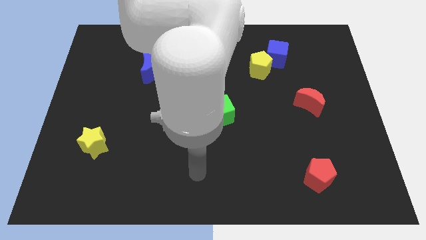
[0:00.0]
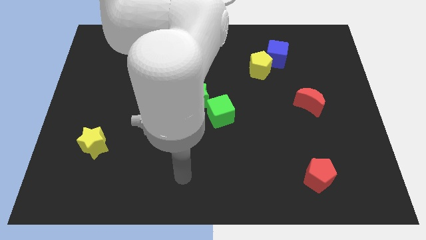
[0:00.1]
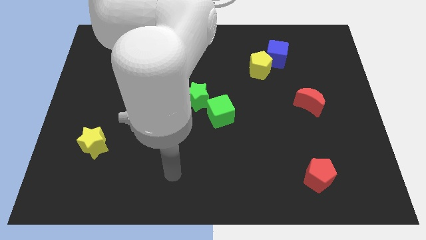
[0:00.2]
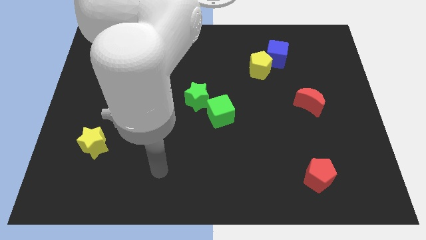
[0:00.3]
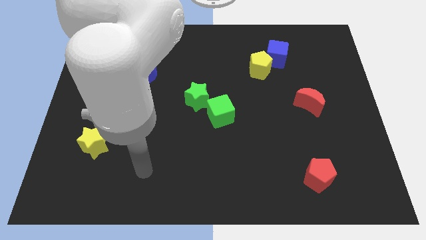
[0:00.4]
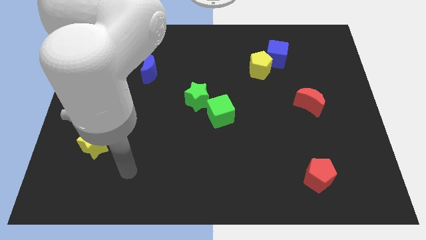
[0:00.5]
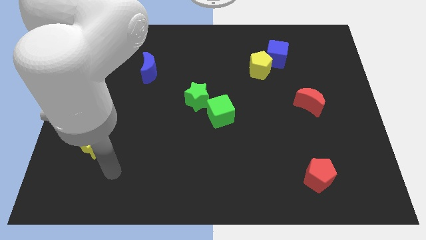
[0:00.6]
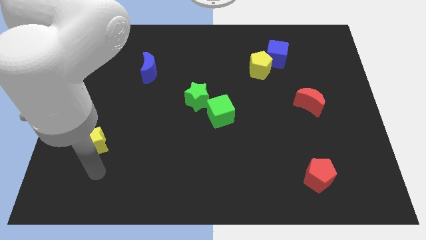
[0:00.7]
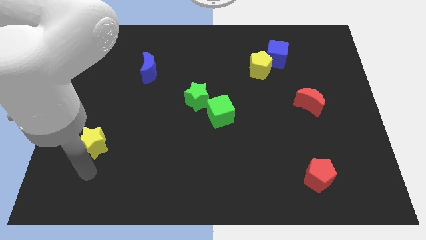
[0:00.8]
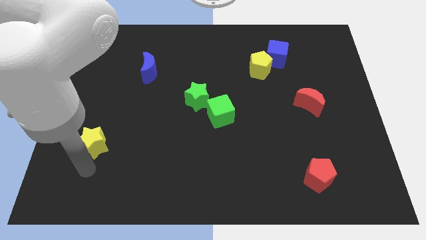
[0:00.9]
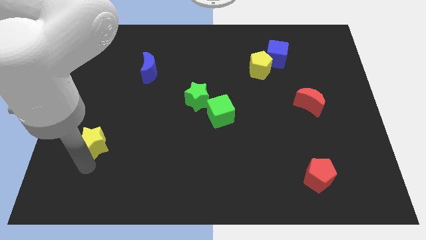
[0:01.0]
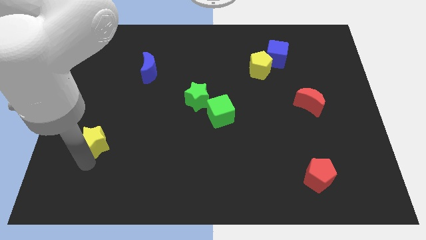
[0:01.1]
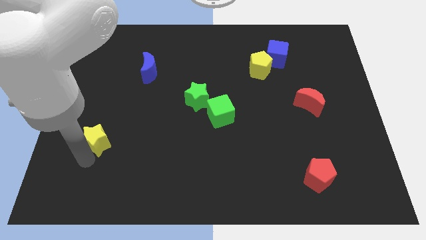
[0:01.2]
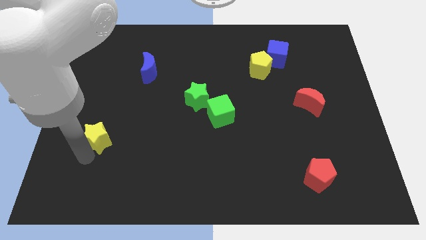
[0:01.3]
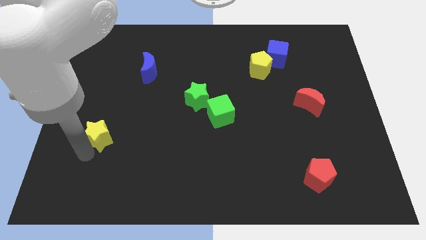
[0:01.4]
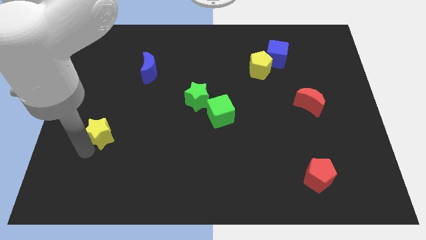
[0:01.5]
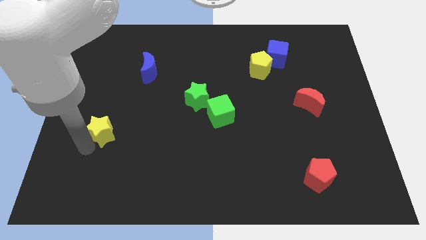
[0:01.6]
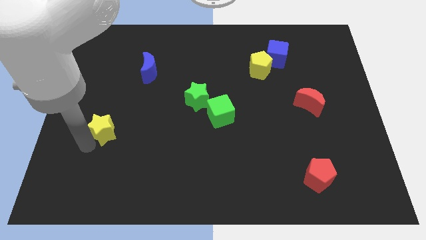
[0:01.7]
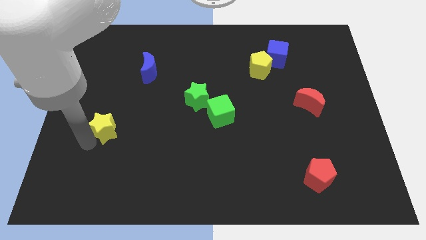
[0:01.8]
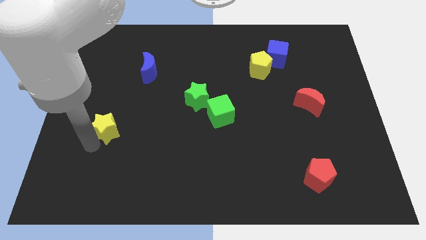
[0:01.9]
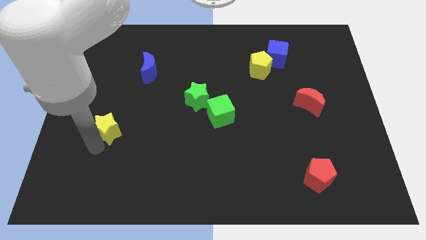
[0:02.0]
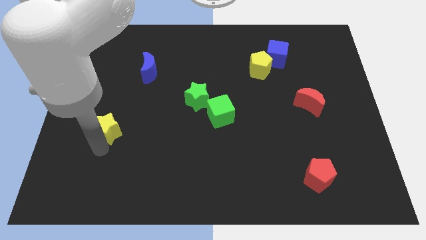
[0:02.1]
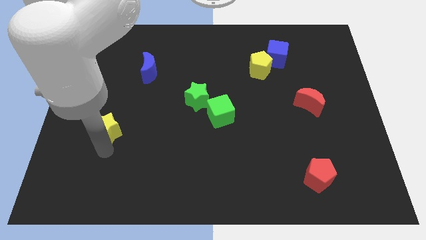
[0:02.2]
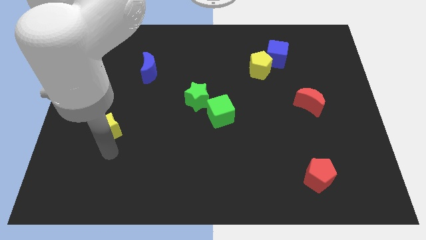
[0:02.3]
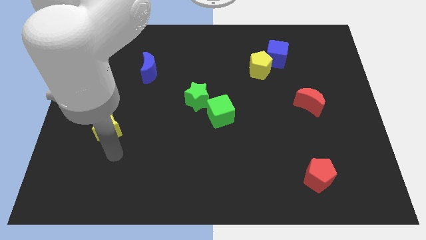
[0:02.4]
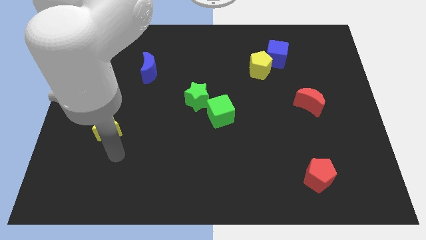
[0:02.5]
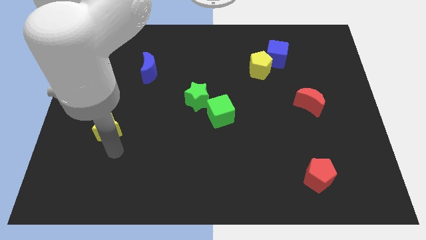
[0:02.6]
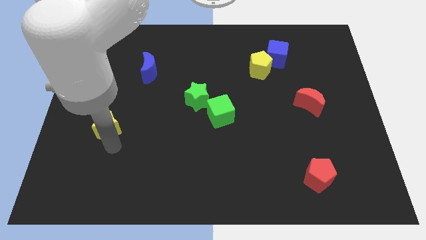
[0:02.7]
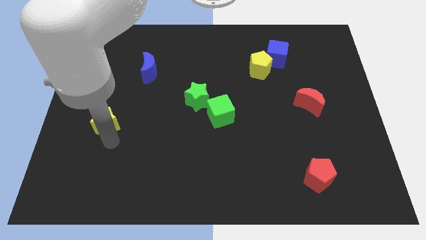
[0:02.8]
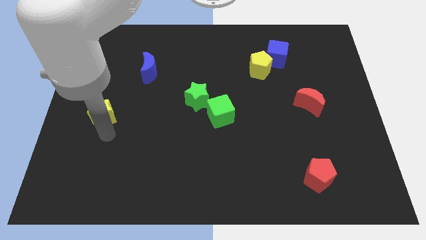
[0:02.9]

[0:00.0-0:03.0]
slide the yellow star up a bit

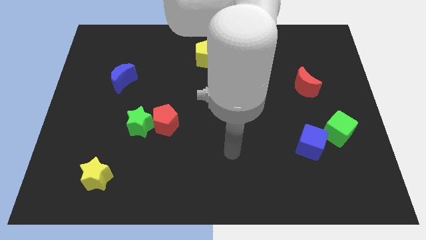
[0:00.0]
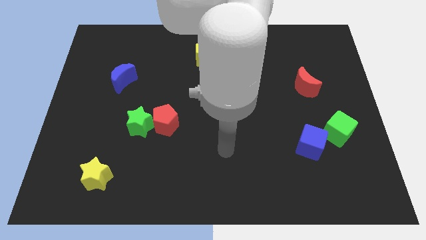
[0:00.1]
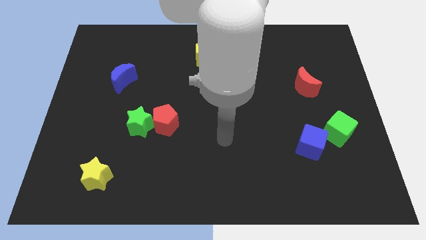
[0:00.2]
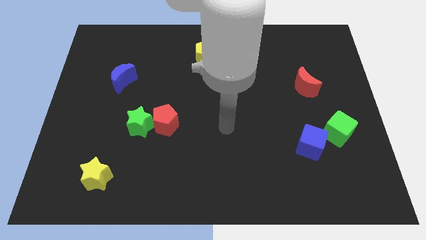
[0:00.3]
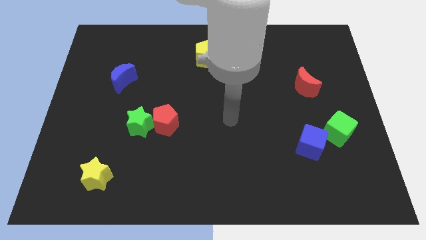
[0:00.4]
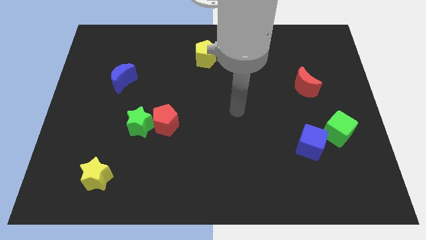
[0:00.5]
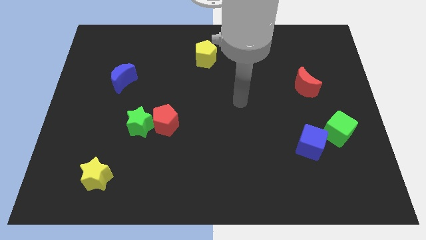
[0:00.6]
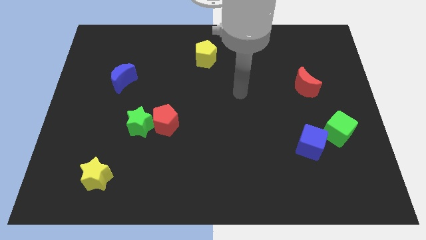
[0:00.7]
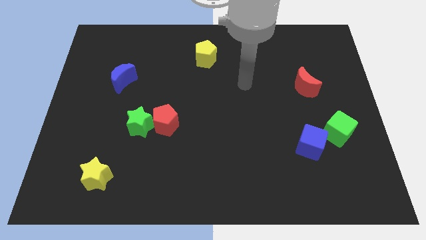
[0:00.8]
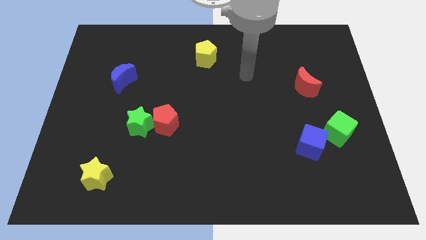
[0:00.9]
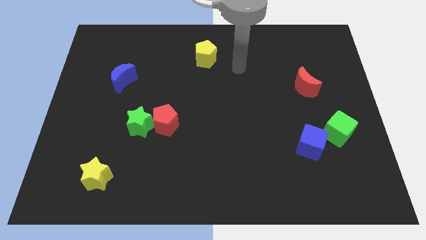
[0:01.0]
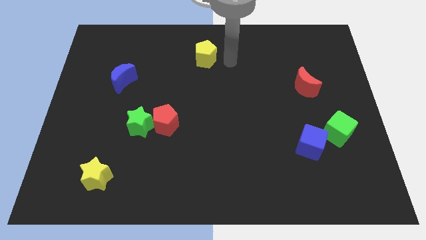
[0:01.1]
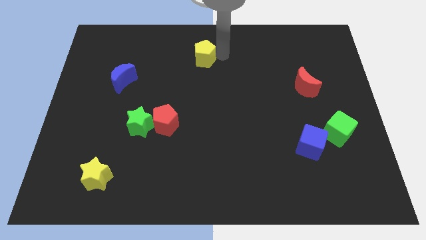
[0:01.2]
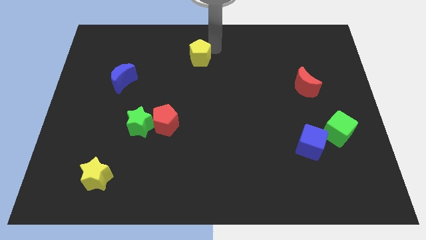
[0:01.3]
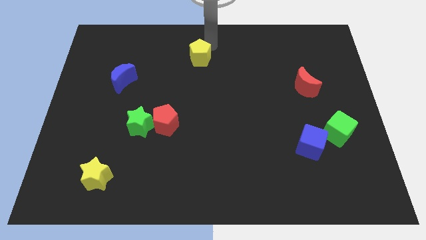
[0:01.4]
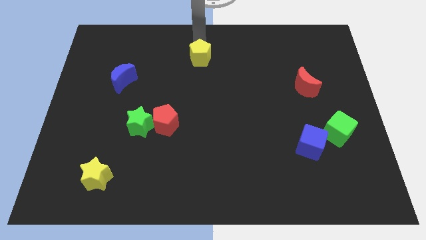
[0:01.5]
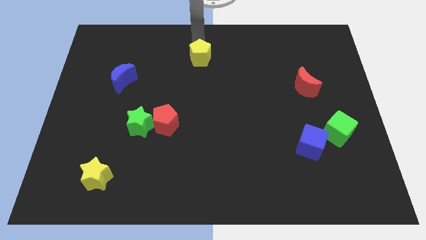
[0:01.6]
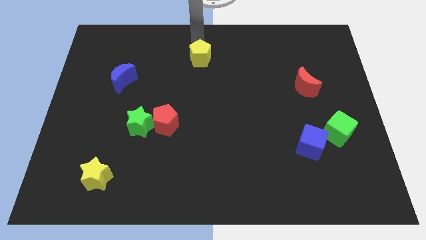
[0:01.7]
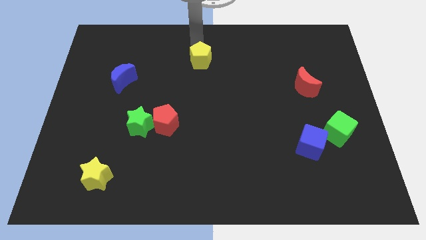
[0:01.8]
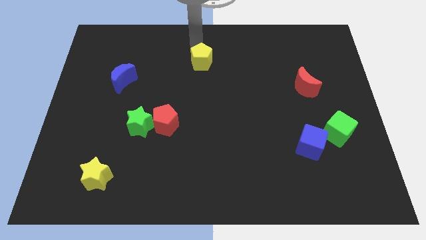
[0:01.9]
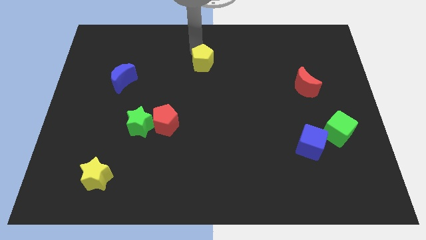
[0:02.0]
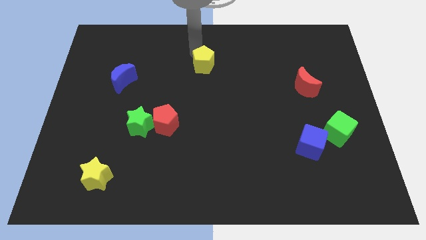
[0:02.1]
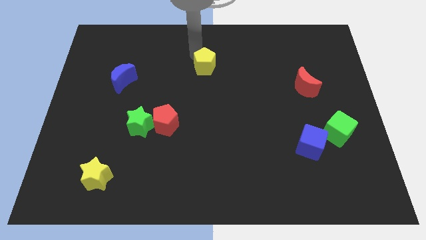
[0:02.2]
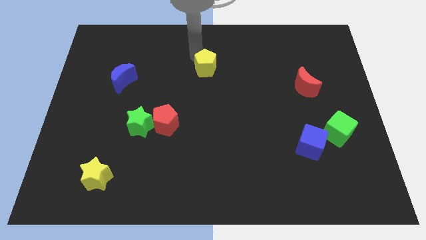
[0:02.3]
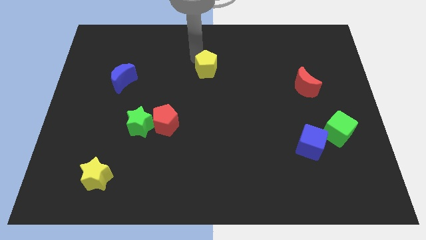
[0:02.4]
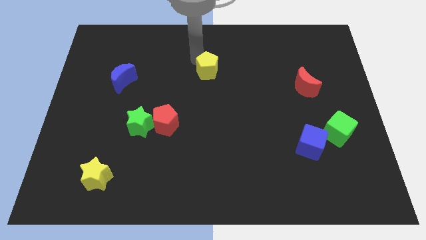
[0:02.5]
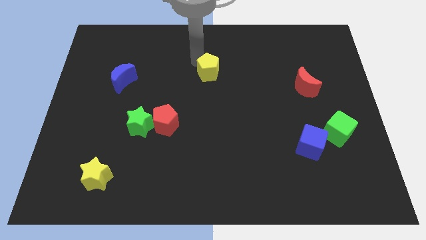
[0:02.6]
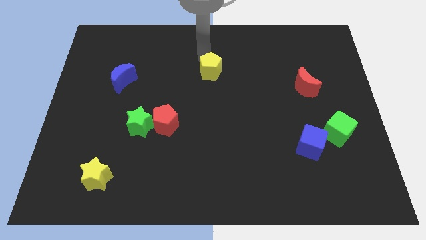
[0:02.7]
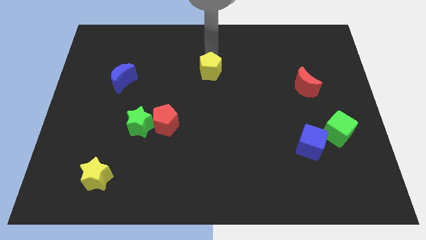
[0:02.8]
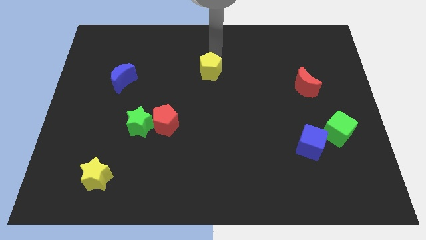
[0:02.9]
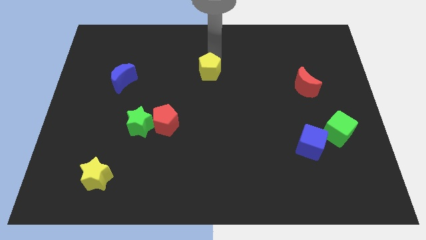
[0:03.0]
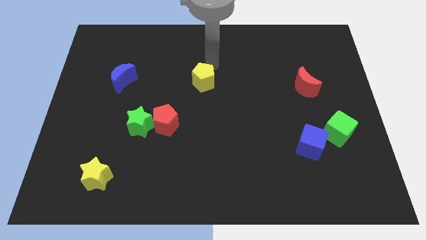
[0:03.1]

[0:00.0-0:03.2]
push the yellow pentagon slightly downwards

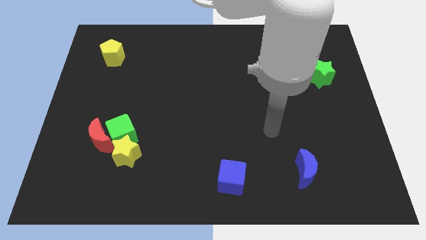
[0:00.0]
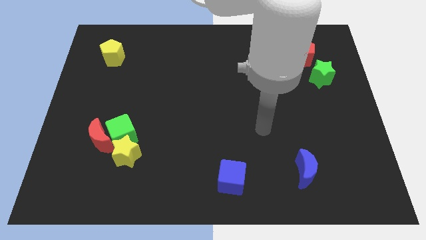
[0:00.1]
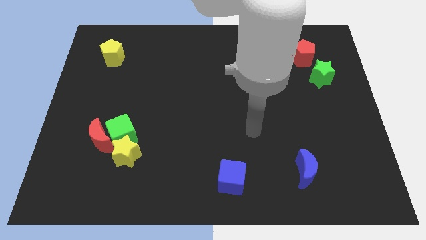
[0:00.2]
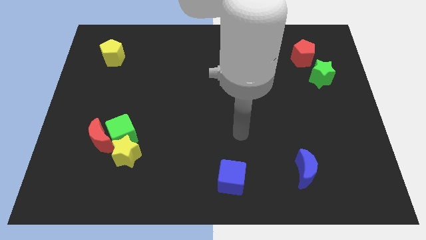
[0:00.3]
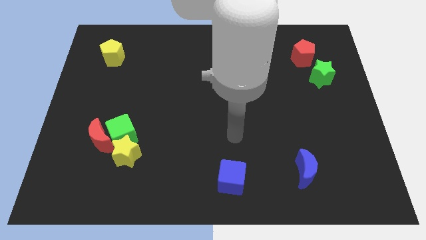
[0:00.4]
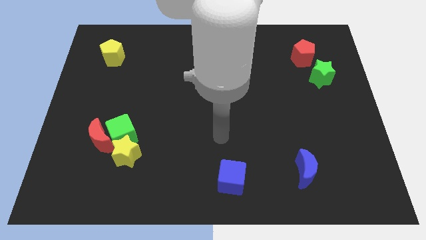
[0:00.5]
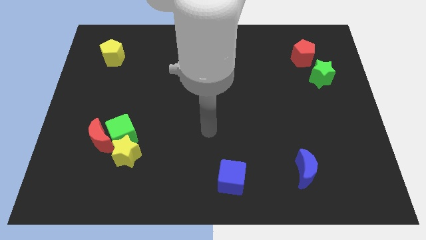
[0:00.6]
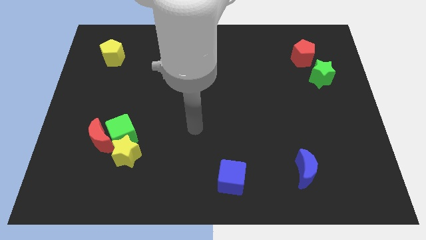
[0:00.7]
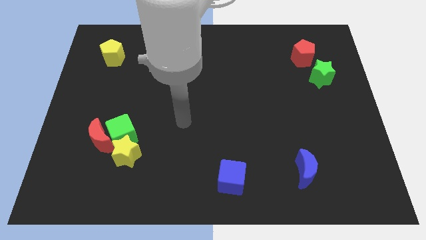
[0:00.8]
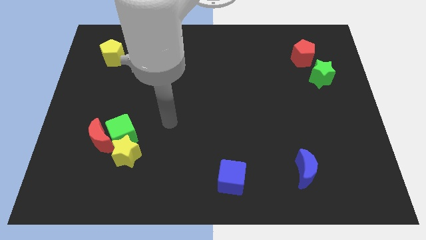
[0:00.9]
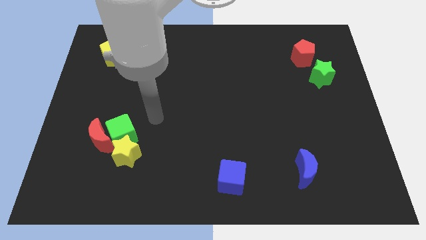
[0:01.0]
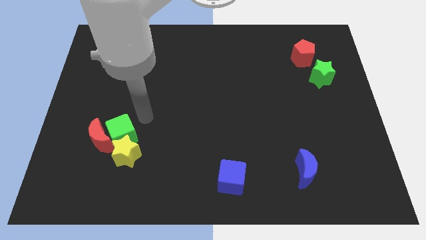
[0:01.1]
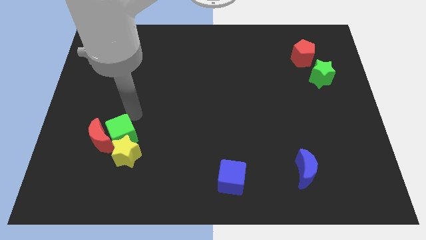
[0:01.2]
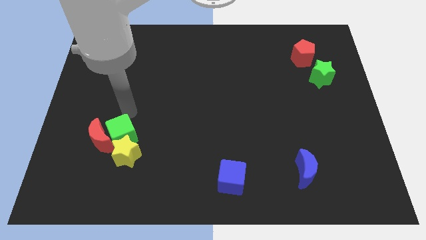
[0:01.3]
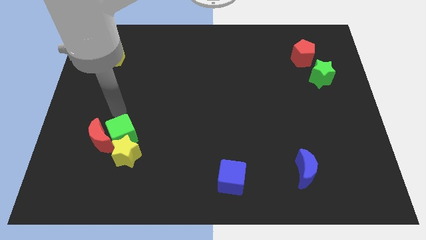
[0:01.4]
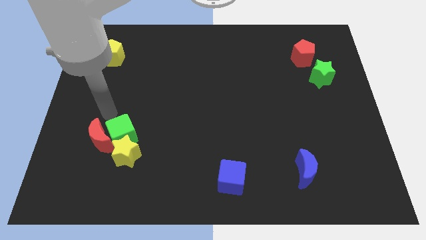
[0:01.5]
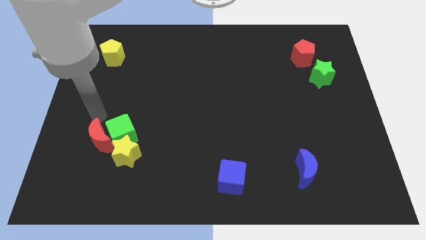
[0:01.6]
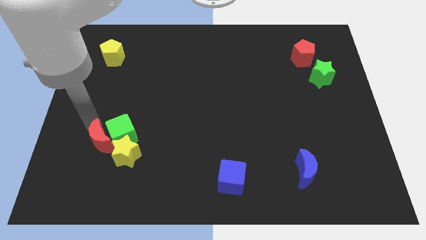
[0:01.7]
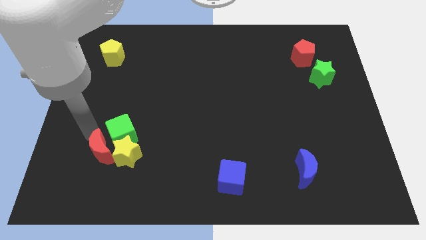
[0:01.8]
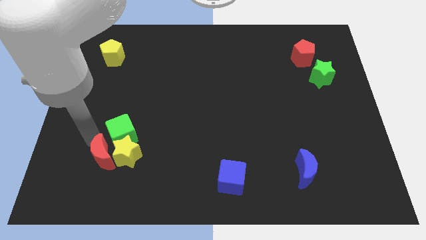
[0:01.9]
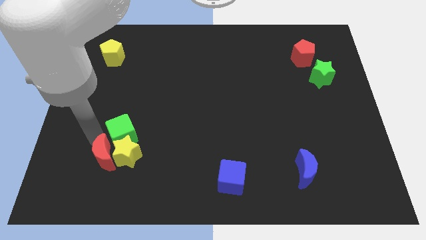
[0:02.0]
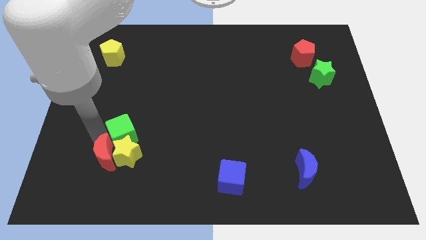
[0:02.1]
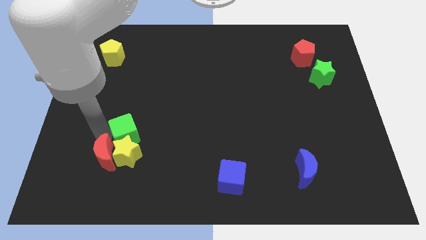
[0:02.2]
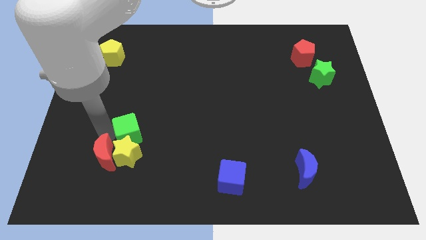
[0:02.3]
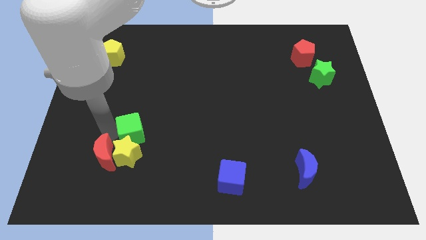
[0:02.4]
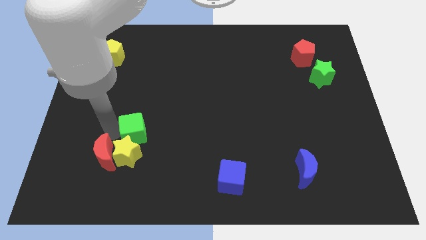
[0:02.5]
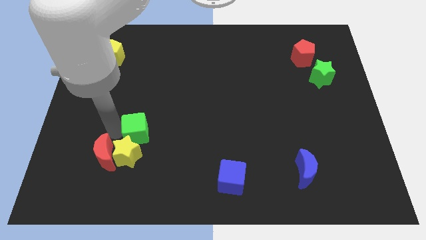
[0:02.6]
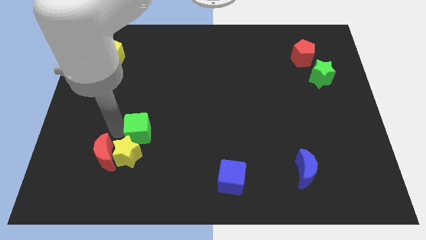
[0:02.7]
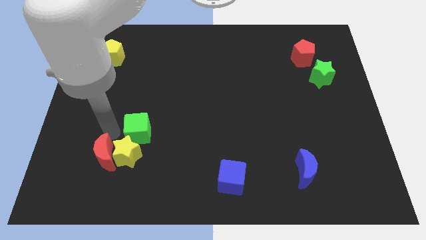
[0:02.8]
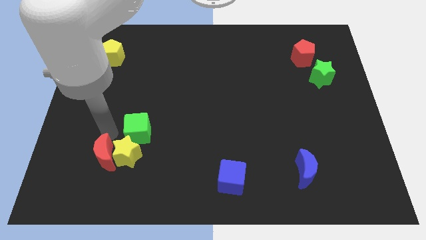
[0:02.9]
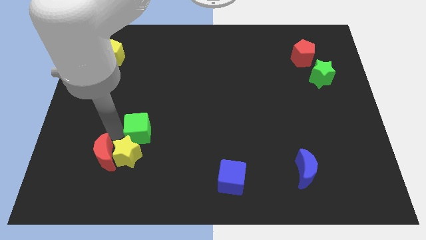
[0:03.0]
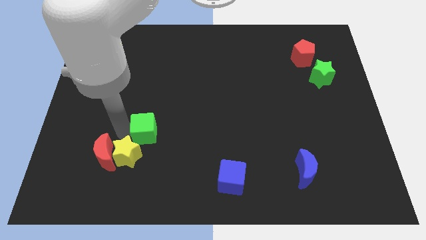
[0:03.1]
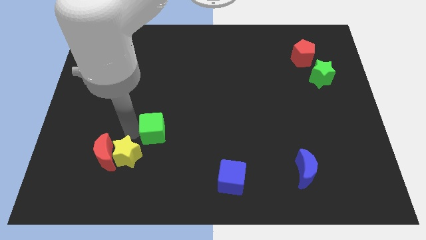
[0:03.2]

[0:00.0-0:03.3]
push the green cube a little right
